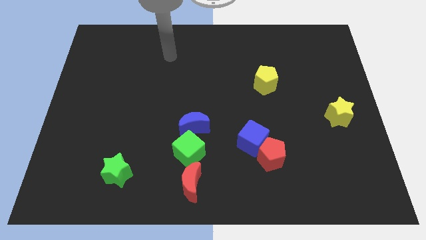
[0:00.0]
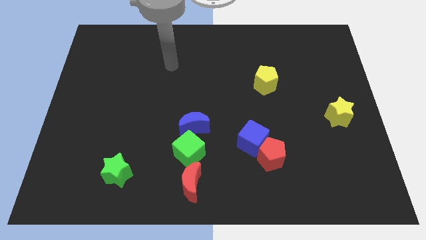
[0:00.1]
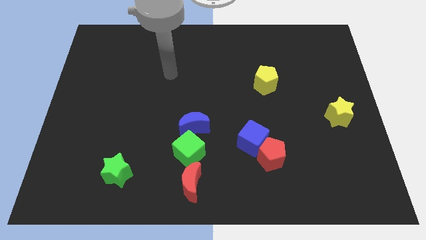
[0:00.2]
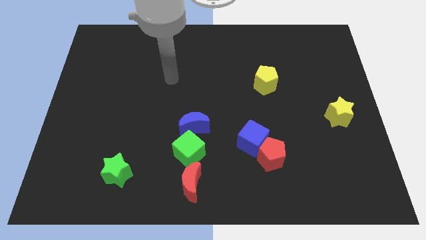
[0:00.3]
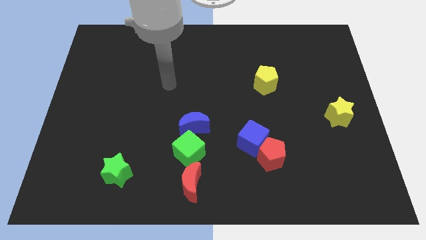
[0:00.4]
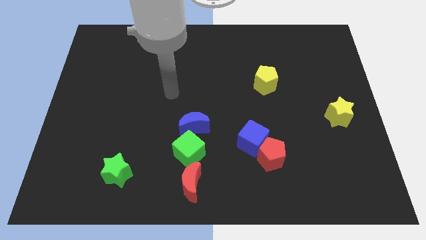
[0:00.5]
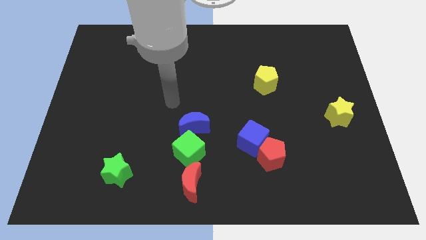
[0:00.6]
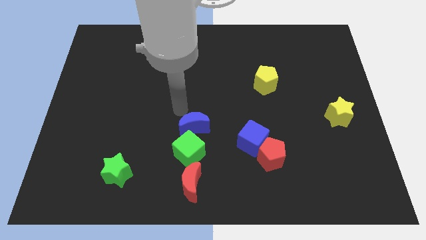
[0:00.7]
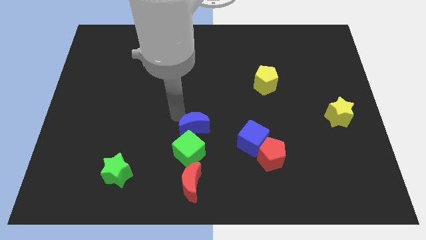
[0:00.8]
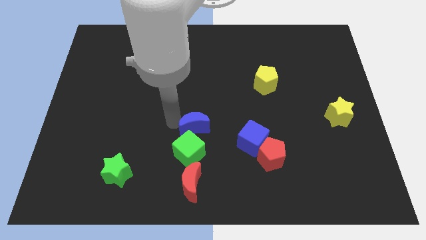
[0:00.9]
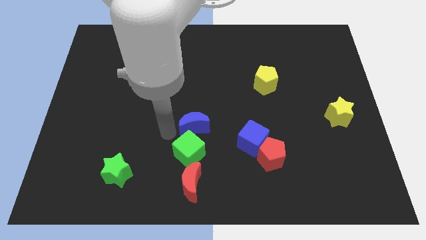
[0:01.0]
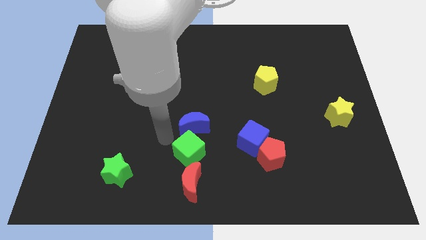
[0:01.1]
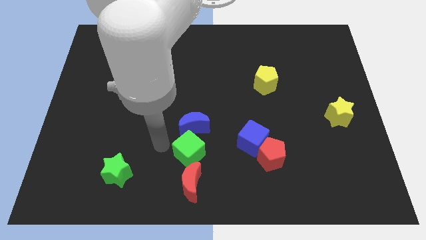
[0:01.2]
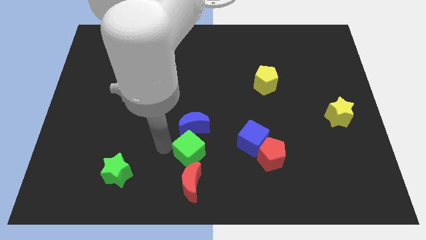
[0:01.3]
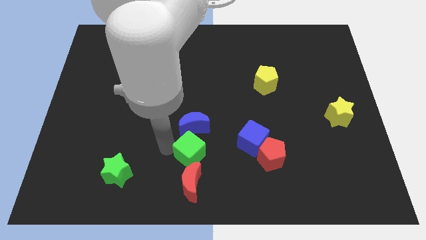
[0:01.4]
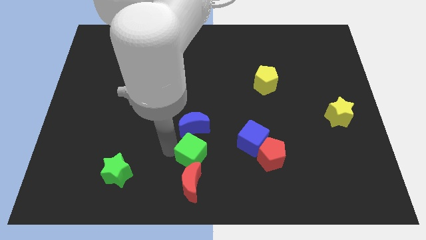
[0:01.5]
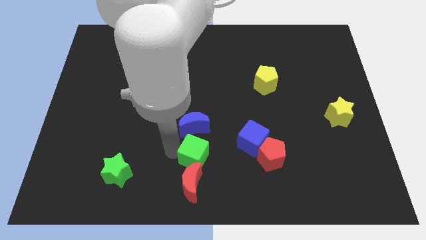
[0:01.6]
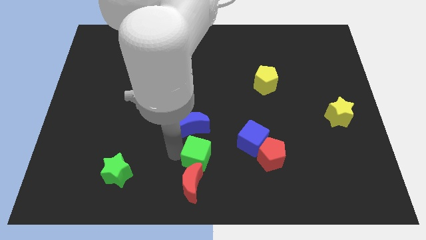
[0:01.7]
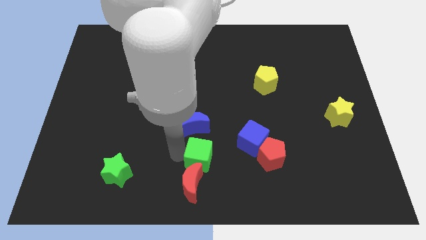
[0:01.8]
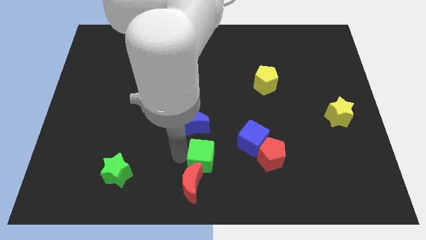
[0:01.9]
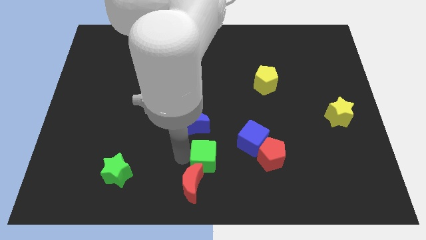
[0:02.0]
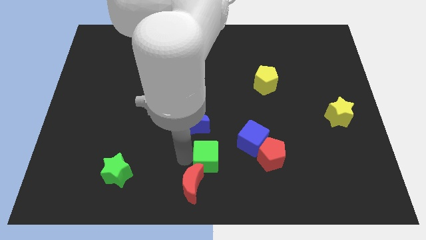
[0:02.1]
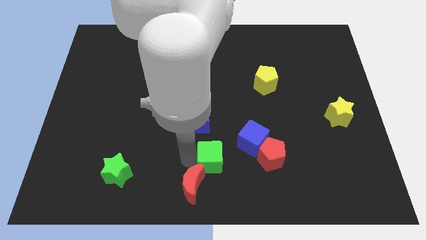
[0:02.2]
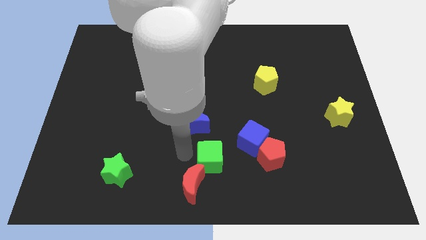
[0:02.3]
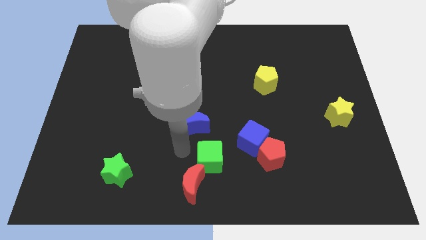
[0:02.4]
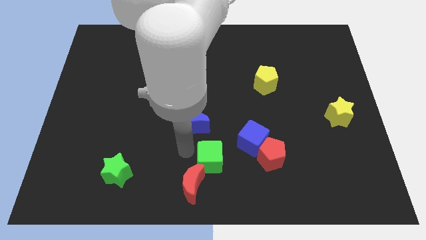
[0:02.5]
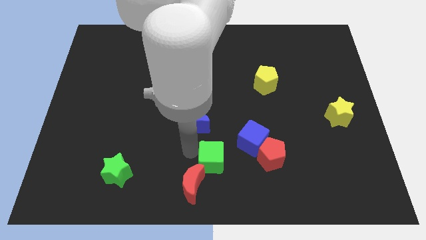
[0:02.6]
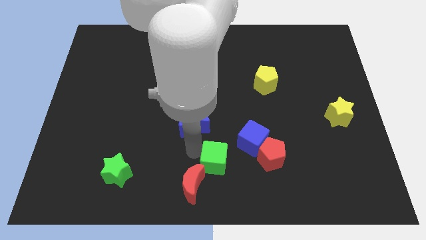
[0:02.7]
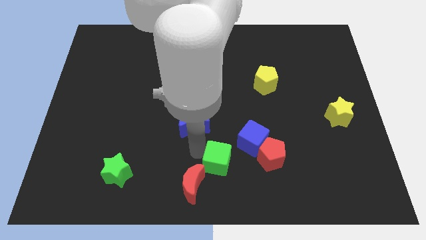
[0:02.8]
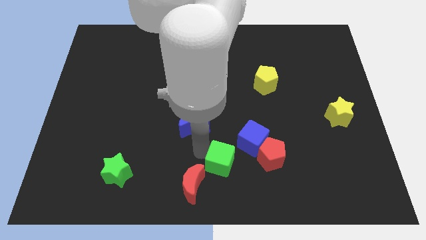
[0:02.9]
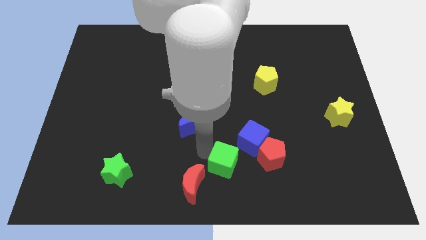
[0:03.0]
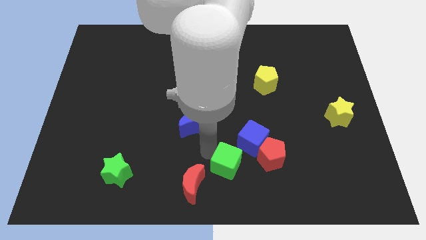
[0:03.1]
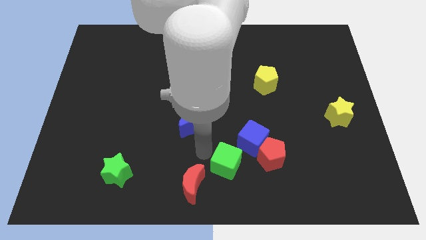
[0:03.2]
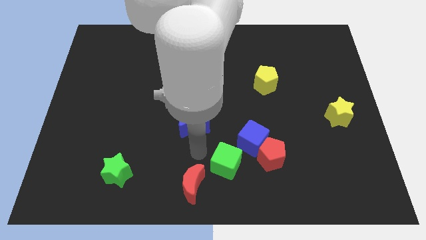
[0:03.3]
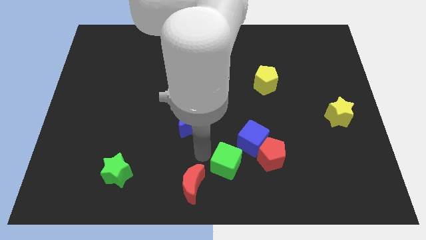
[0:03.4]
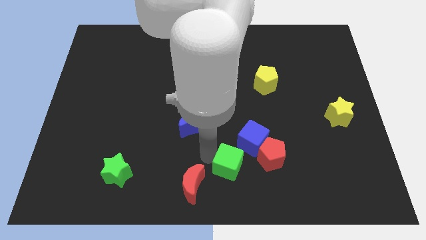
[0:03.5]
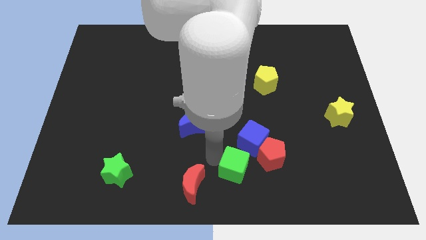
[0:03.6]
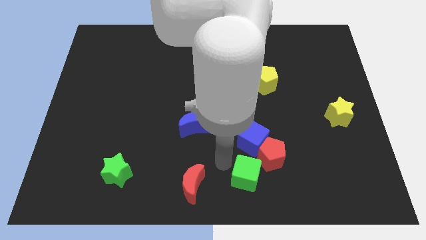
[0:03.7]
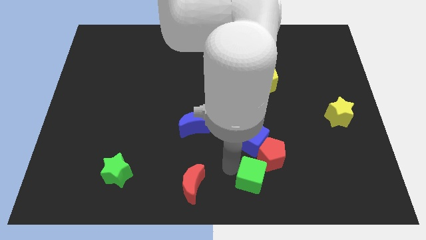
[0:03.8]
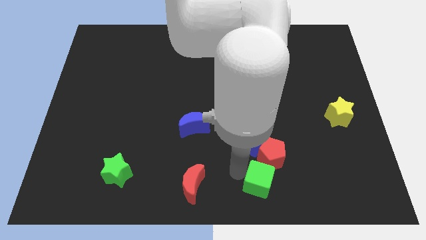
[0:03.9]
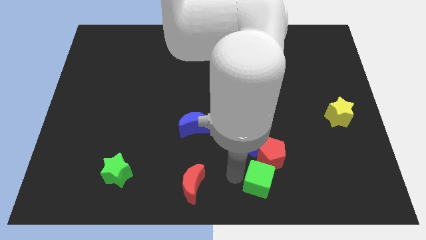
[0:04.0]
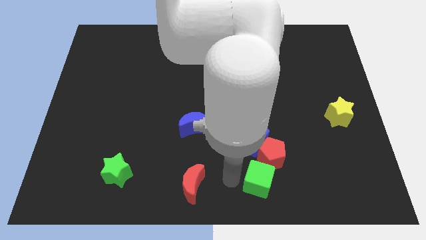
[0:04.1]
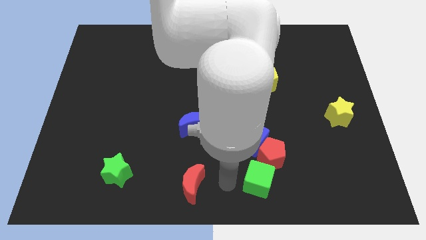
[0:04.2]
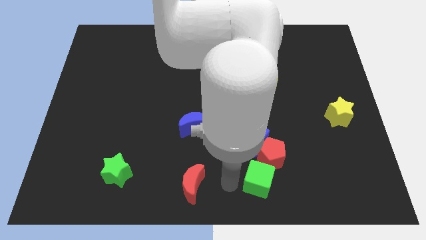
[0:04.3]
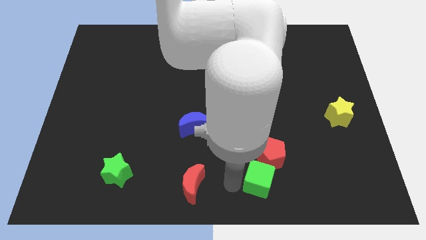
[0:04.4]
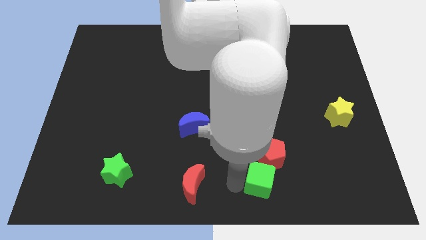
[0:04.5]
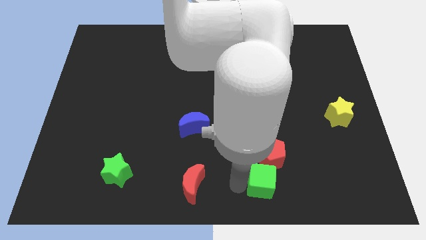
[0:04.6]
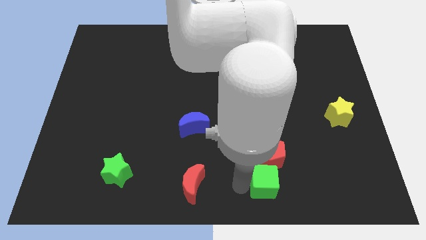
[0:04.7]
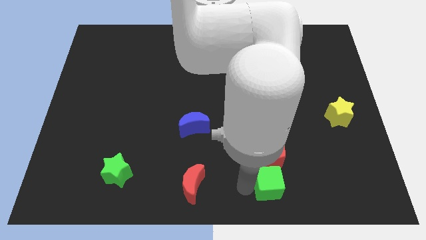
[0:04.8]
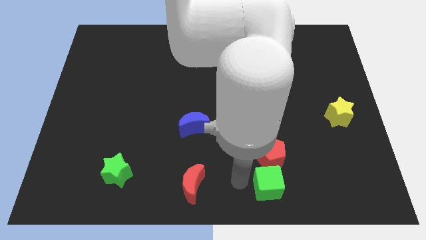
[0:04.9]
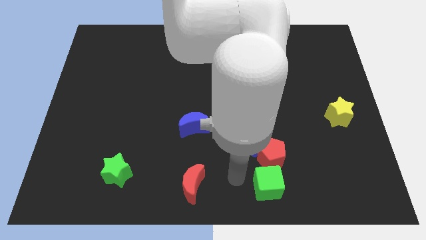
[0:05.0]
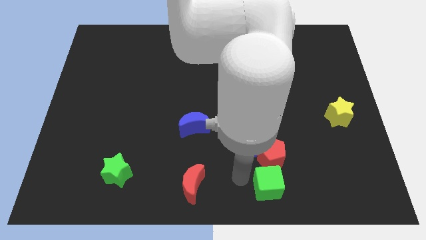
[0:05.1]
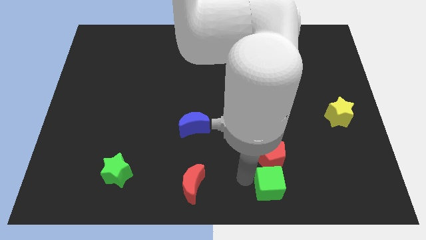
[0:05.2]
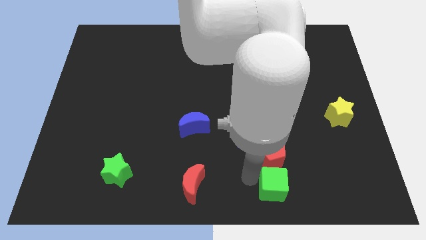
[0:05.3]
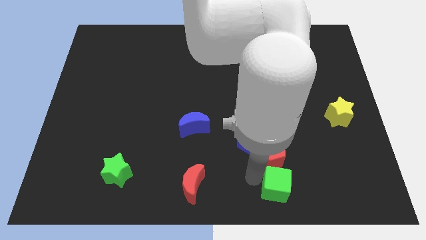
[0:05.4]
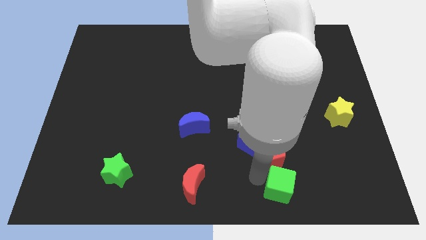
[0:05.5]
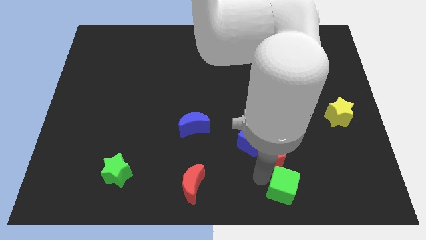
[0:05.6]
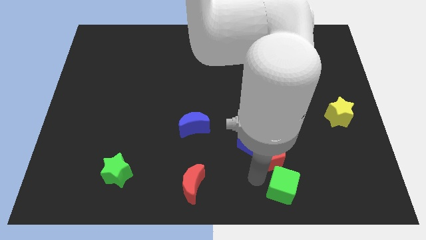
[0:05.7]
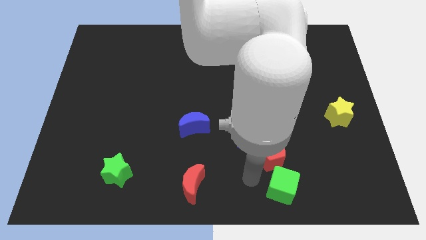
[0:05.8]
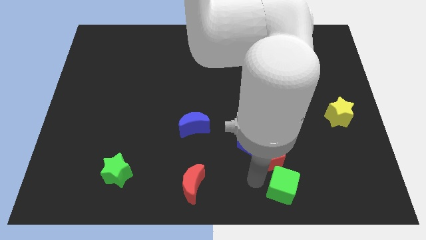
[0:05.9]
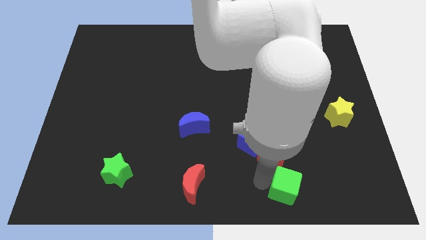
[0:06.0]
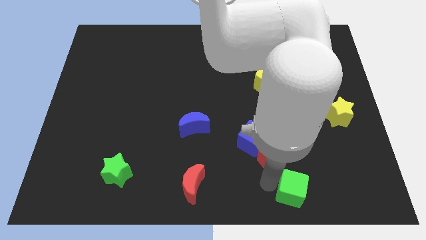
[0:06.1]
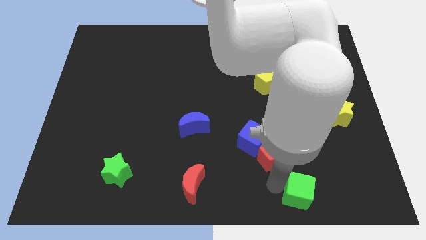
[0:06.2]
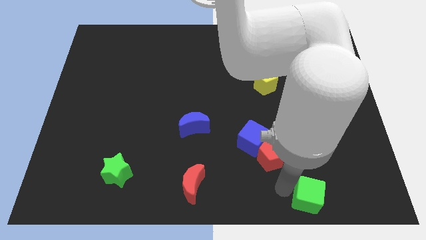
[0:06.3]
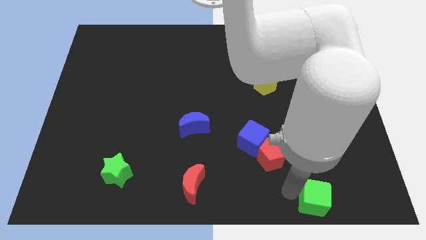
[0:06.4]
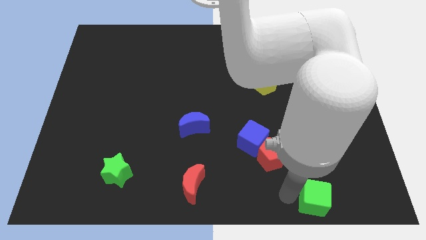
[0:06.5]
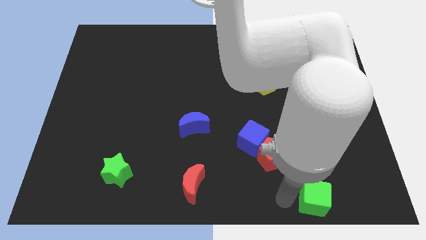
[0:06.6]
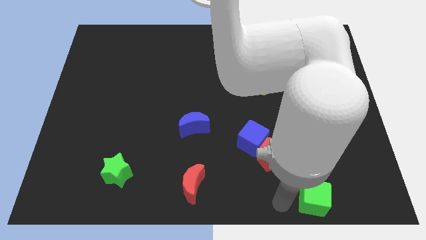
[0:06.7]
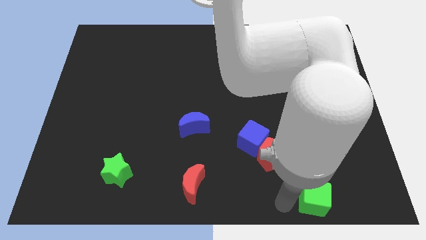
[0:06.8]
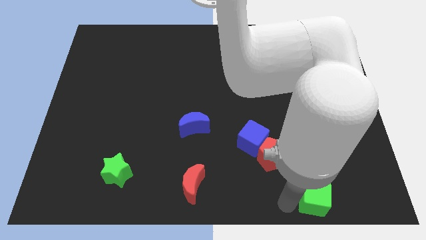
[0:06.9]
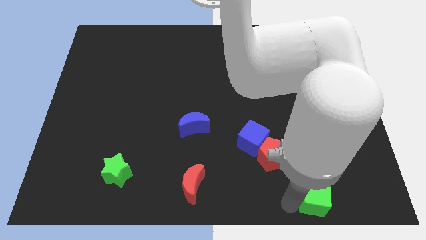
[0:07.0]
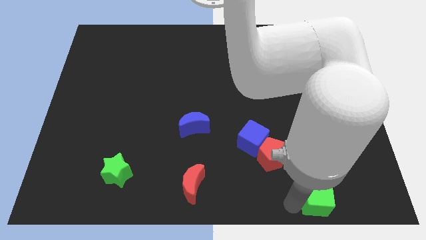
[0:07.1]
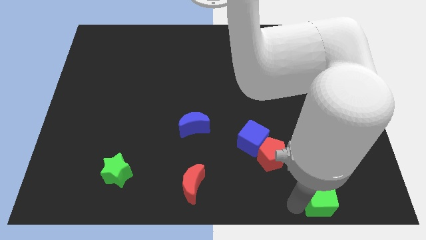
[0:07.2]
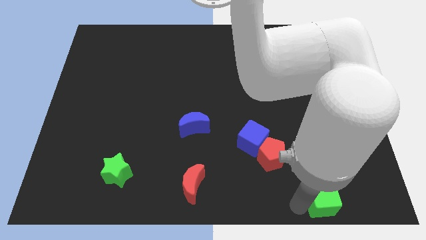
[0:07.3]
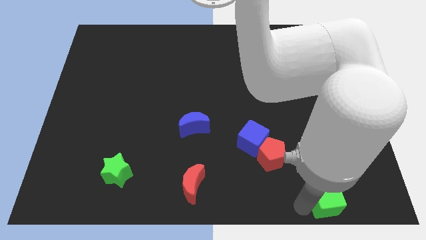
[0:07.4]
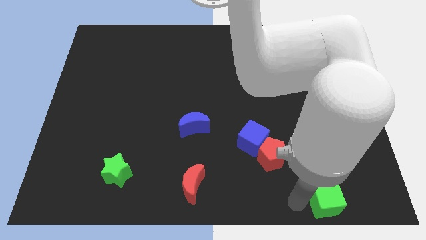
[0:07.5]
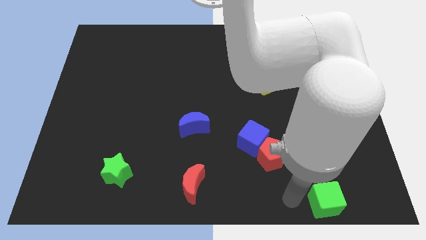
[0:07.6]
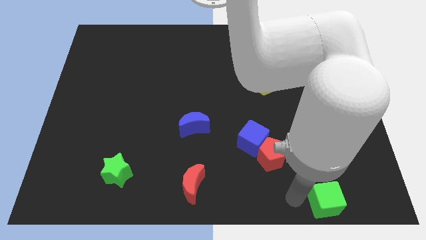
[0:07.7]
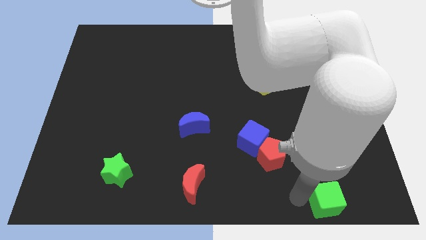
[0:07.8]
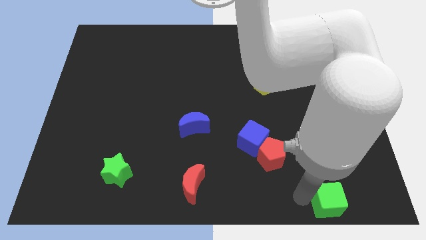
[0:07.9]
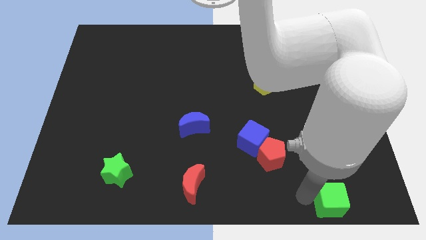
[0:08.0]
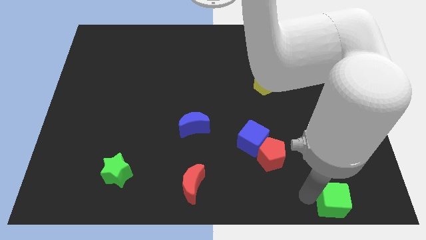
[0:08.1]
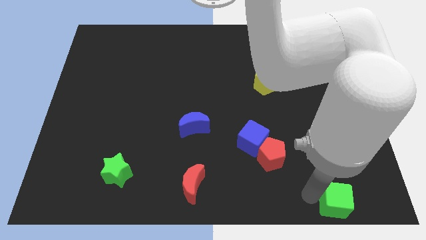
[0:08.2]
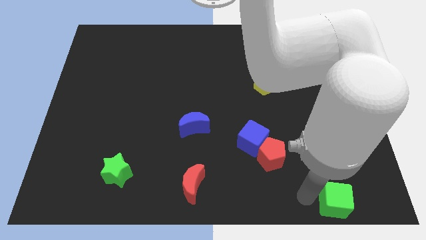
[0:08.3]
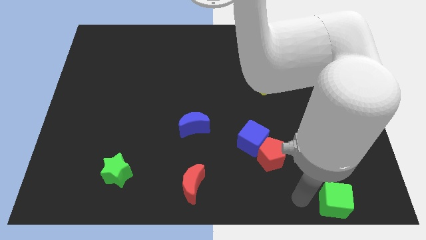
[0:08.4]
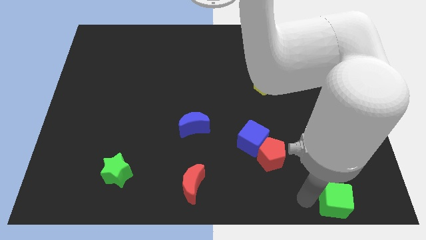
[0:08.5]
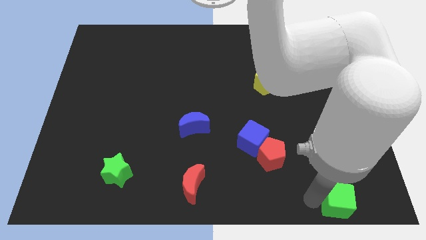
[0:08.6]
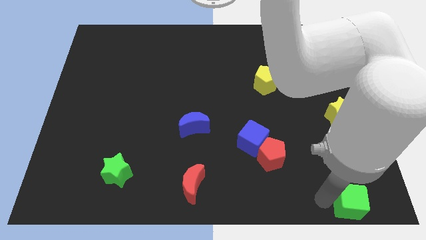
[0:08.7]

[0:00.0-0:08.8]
push the green cube to the bottom right of the board
